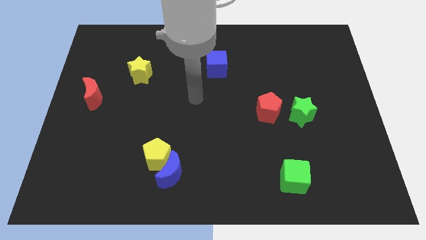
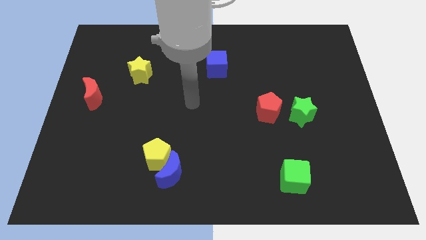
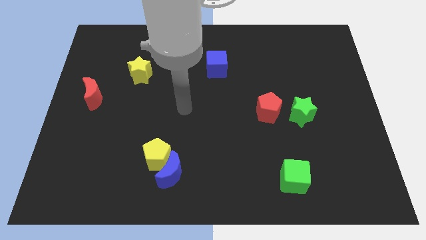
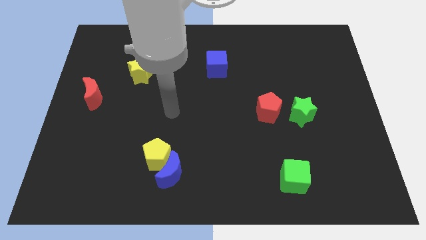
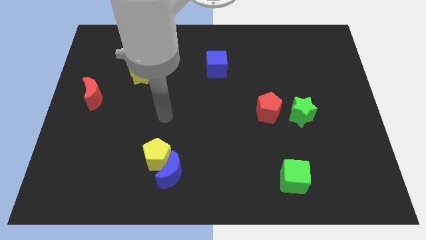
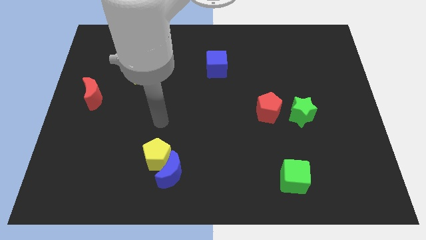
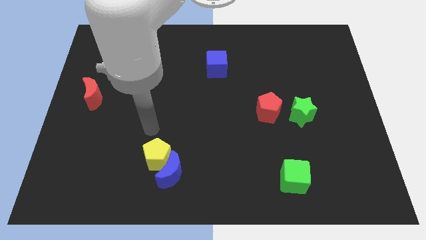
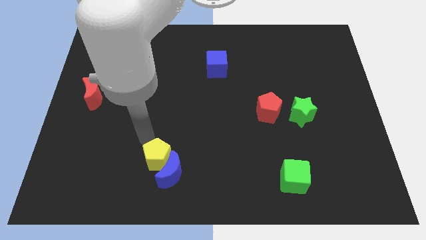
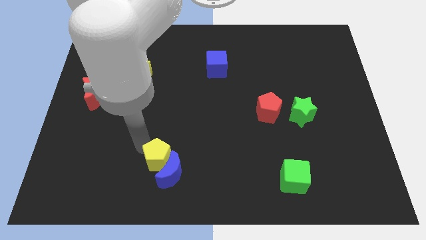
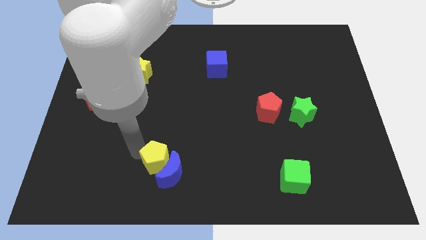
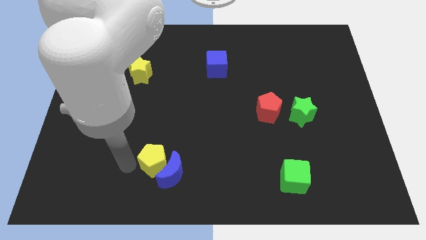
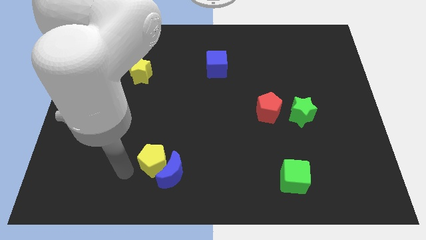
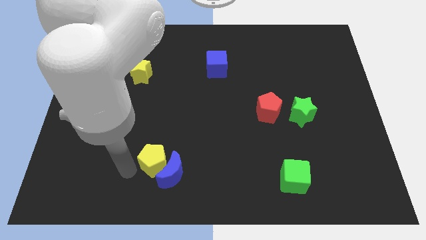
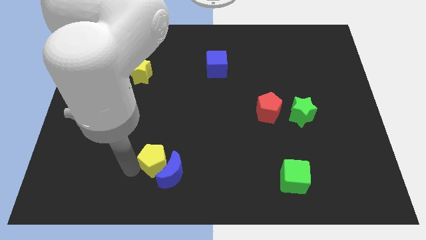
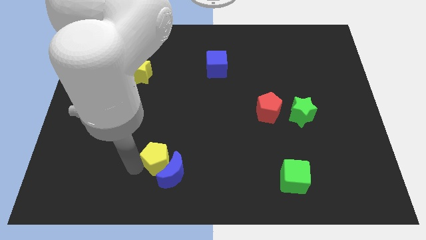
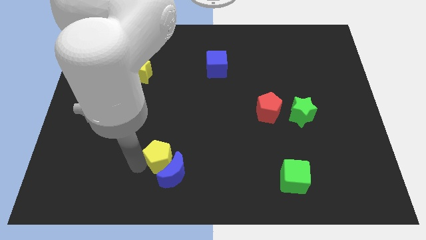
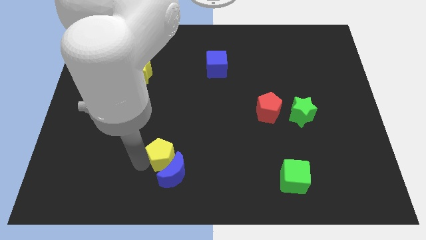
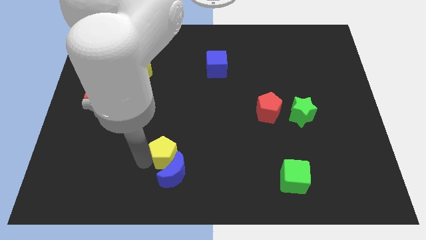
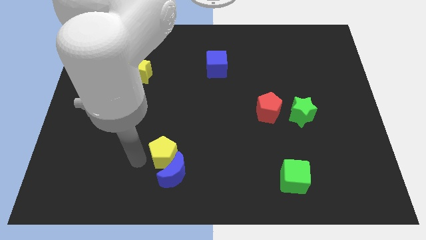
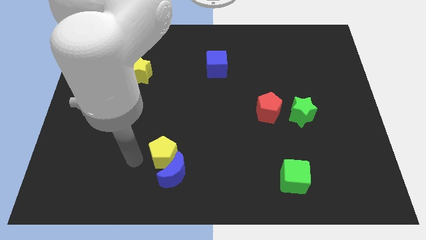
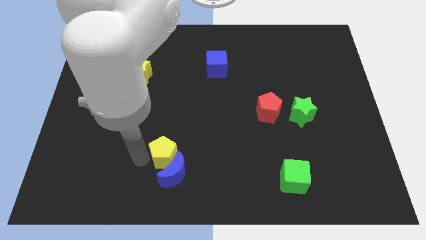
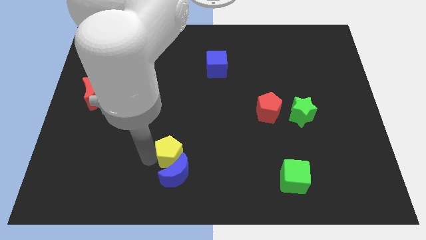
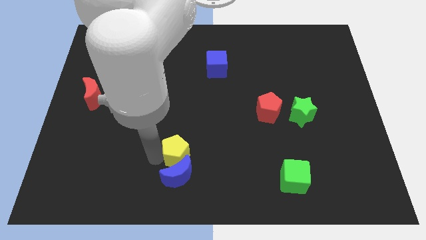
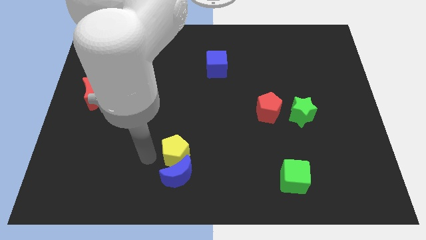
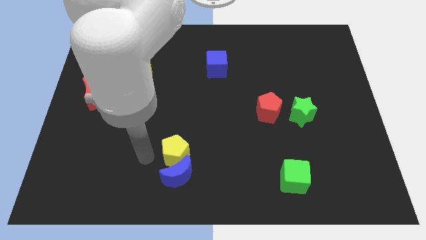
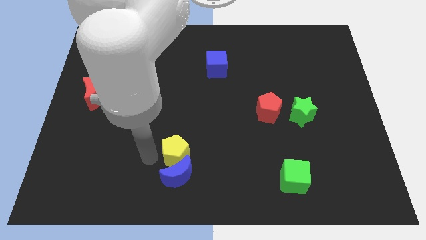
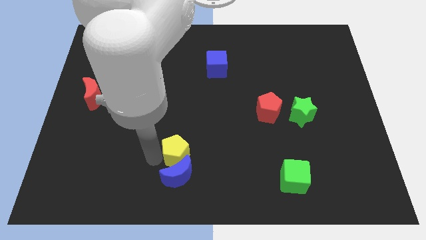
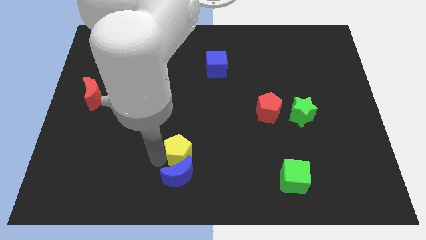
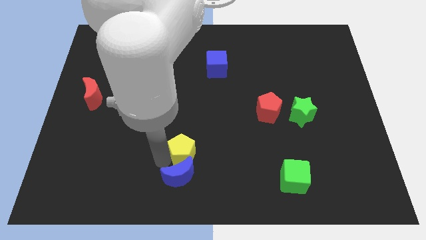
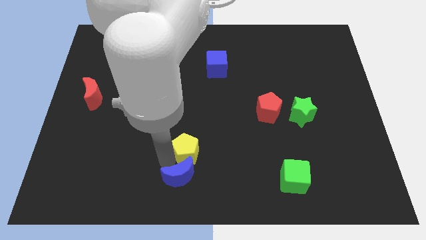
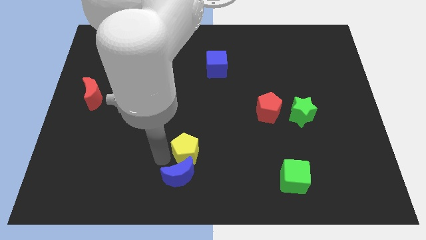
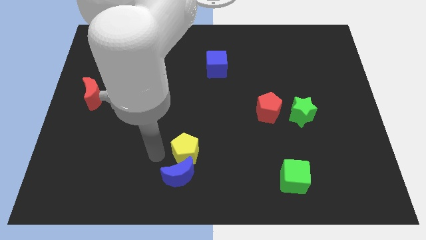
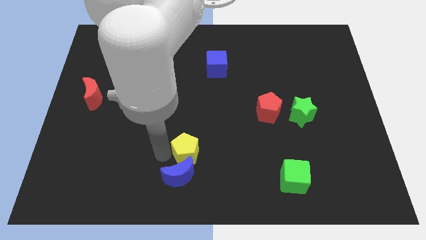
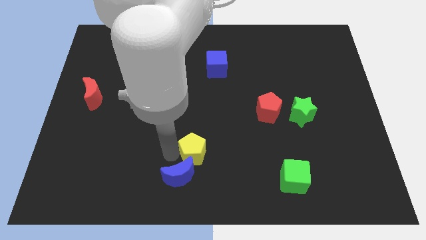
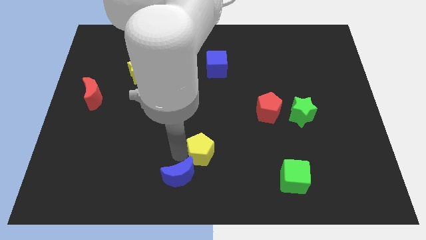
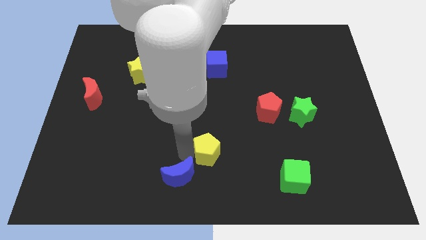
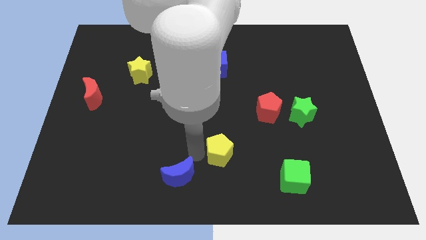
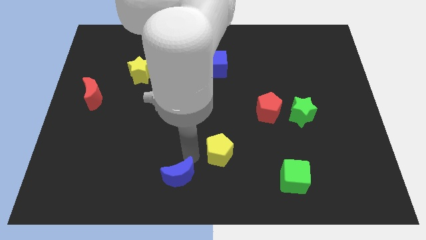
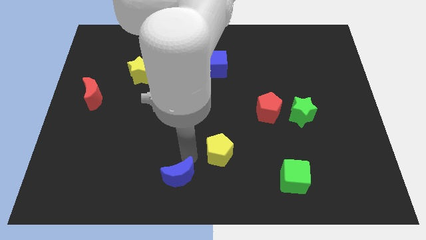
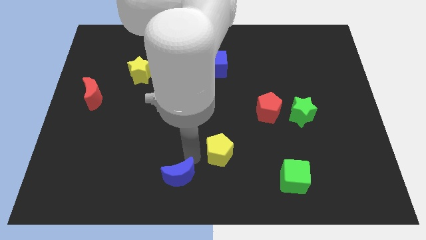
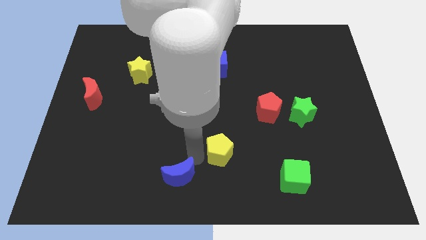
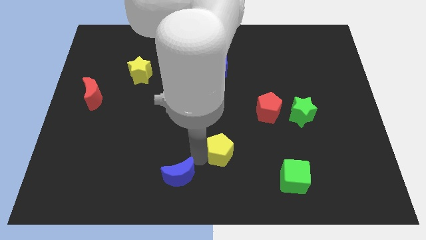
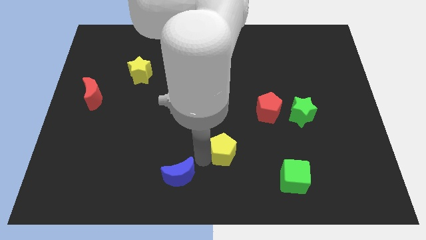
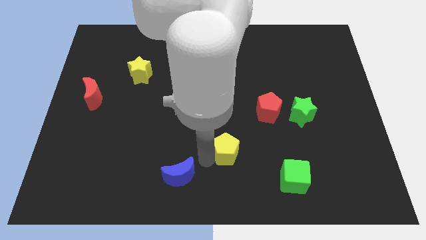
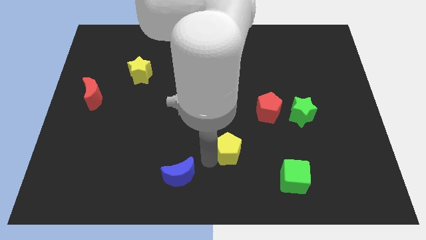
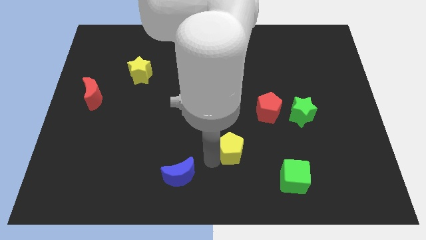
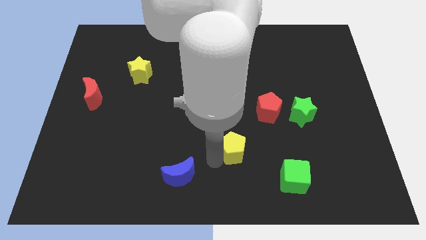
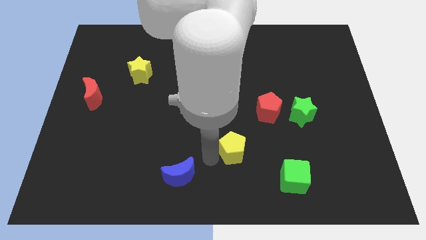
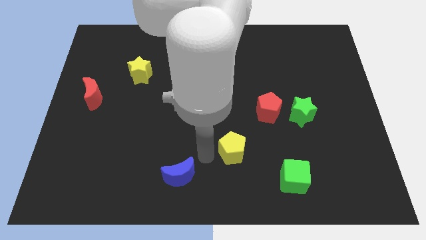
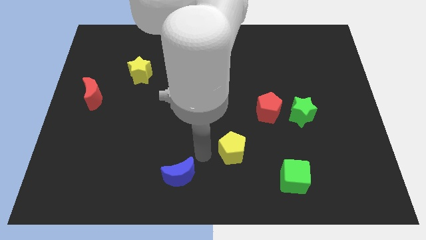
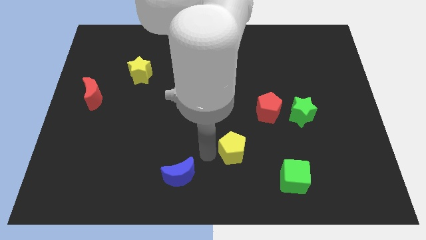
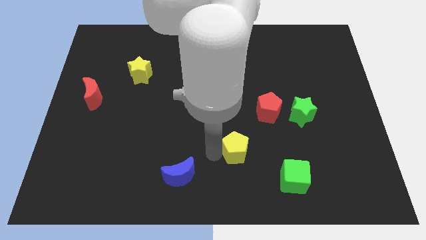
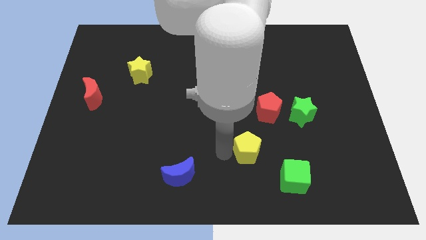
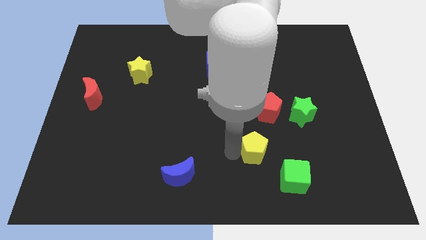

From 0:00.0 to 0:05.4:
slide the yellow pentagon below the red pentagon

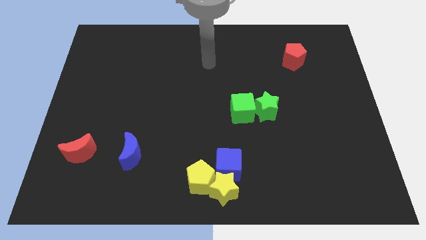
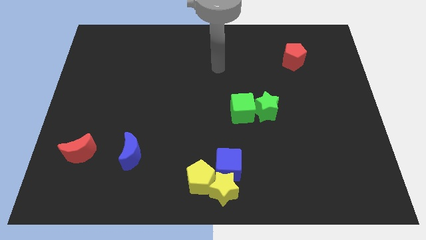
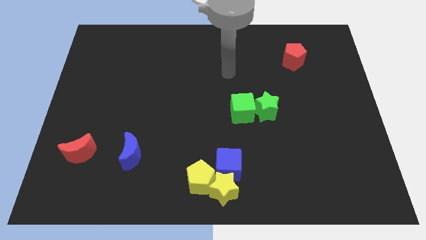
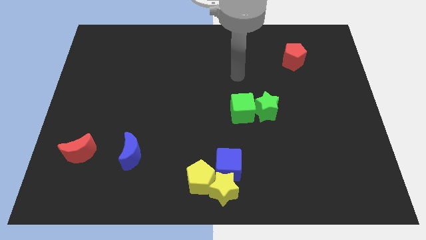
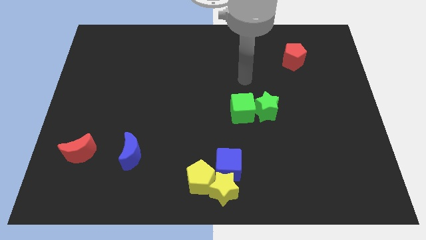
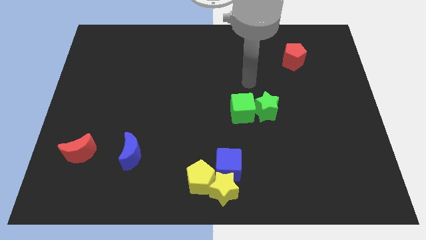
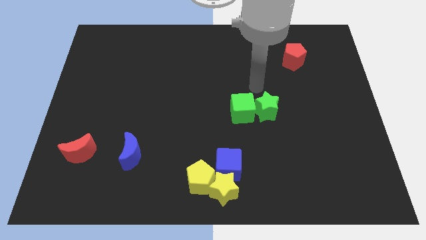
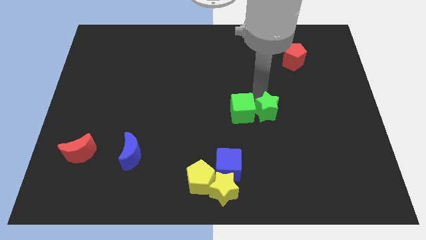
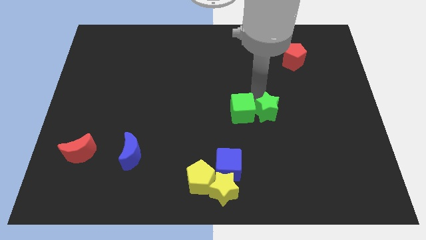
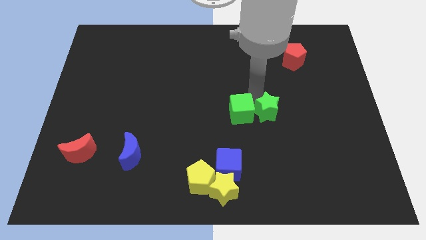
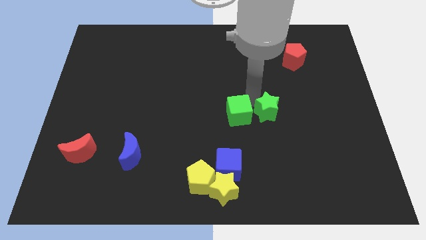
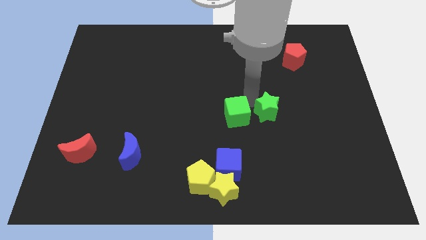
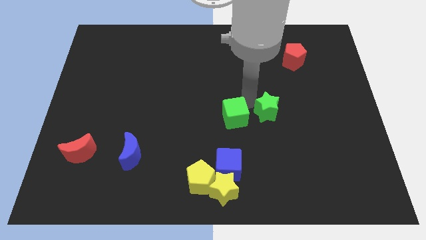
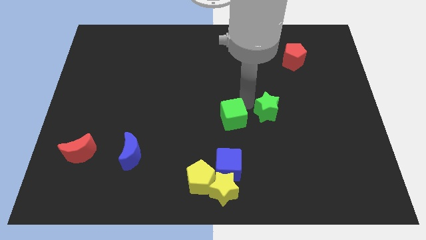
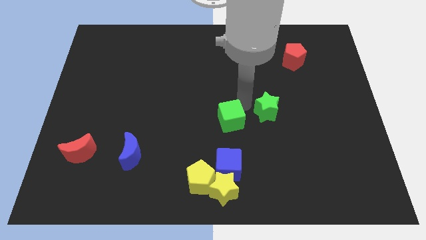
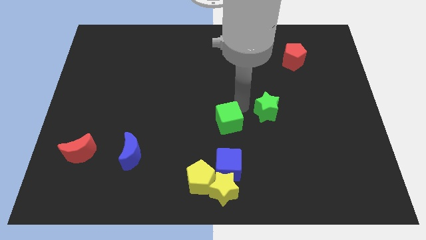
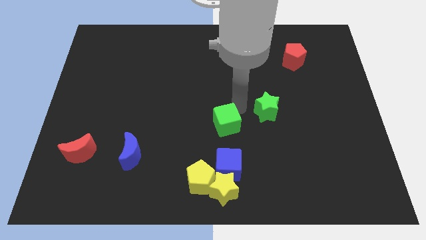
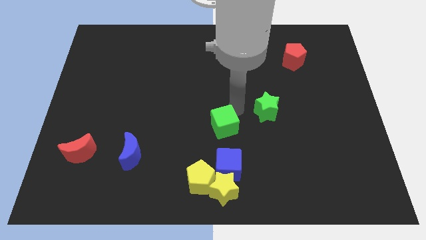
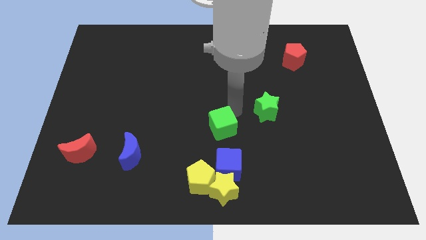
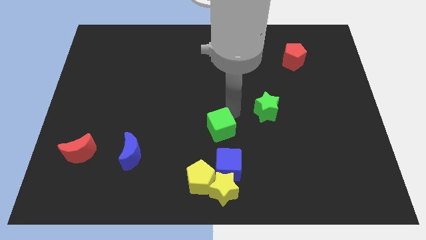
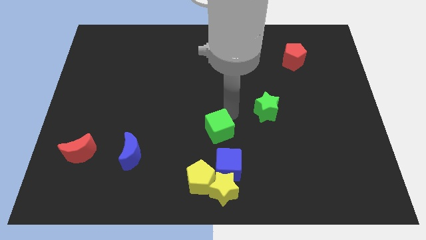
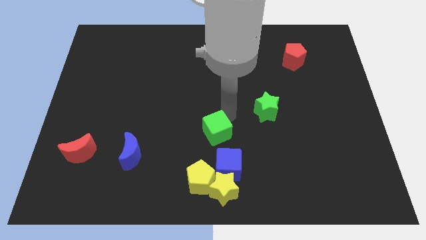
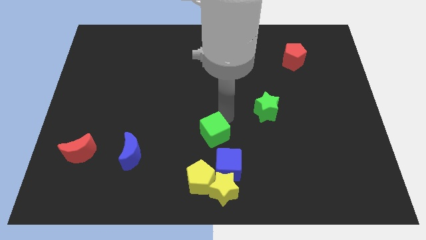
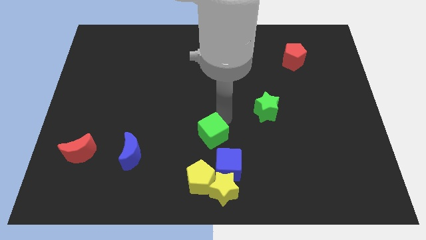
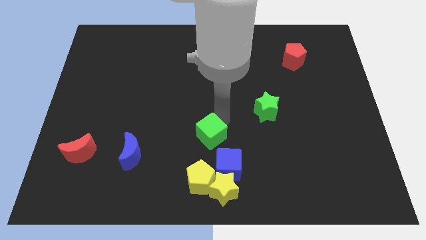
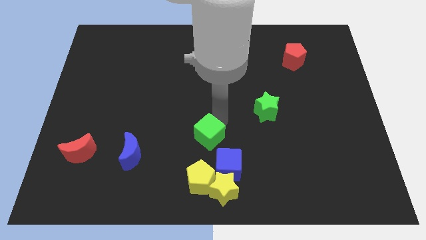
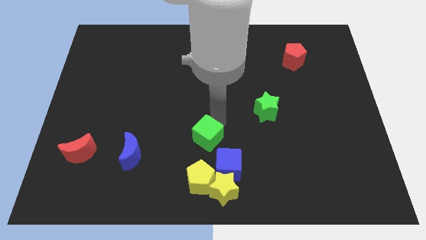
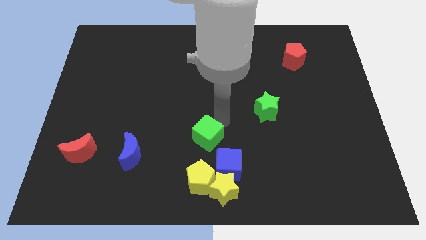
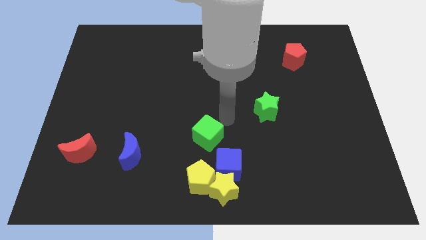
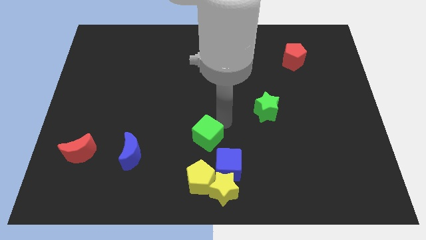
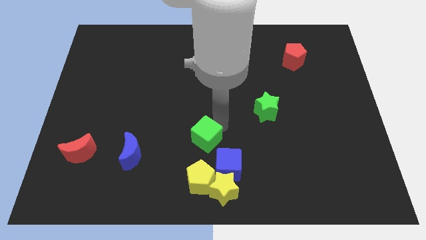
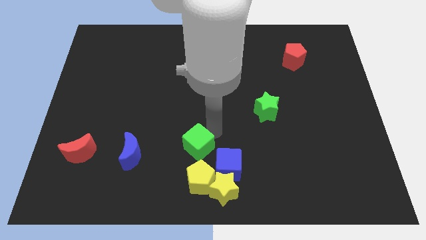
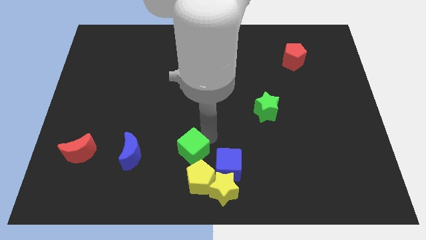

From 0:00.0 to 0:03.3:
move the green cube diagonally up and to the left of the yellow pentagon
